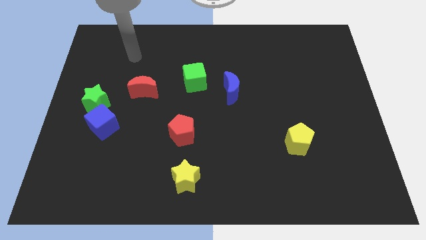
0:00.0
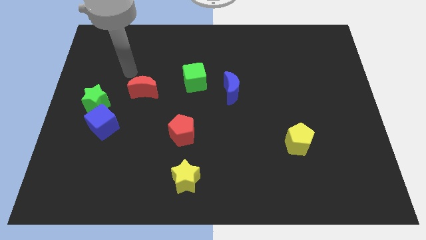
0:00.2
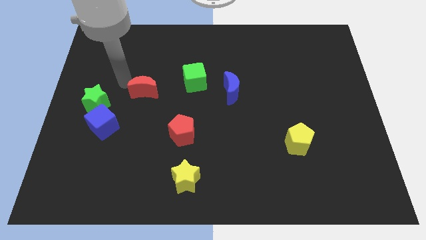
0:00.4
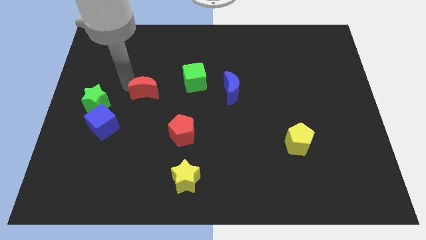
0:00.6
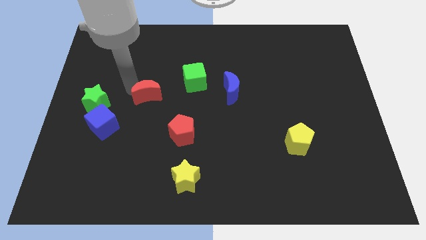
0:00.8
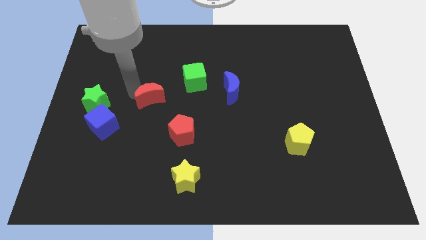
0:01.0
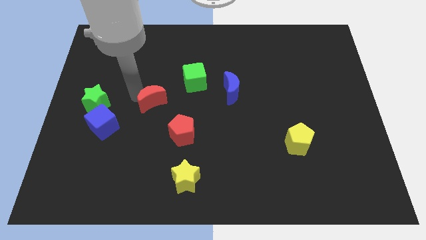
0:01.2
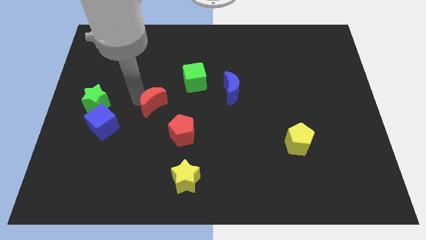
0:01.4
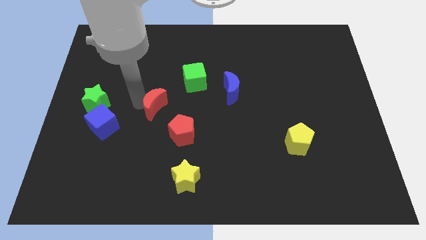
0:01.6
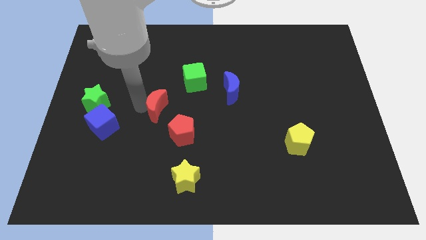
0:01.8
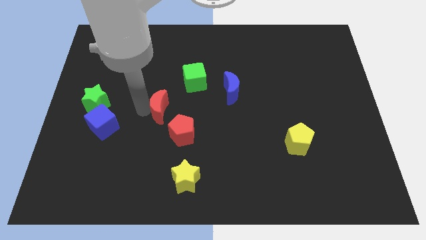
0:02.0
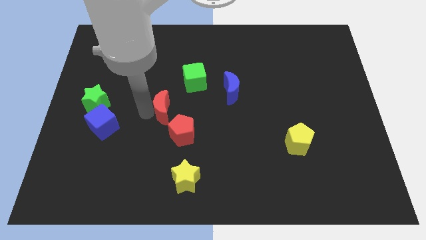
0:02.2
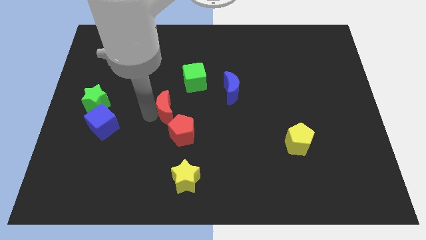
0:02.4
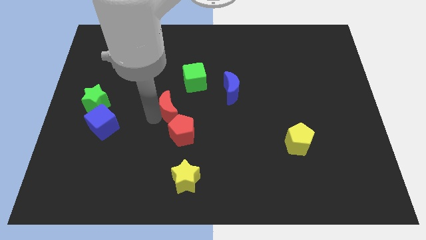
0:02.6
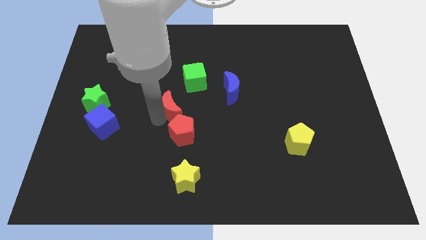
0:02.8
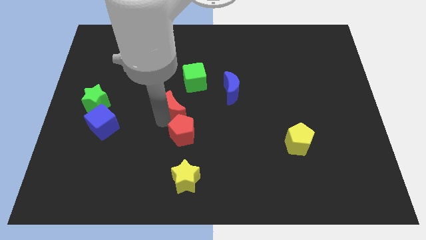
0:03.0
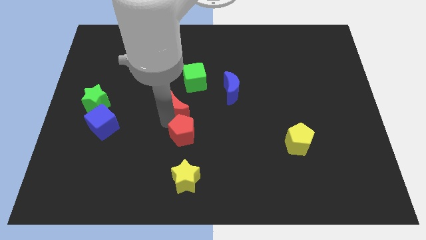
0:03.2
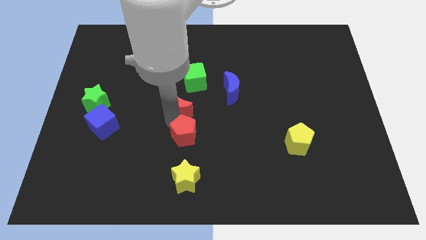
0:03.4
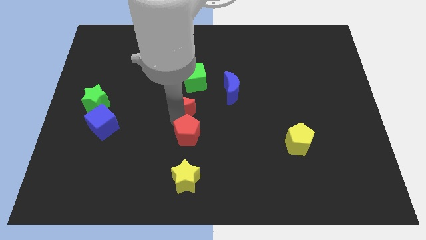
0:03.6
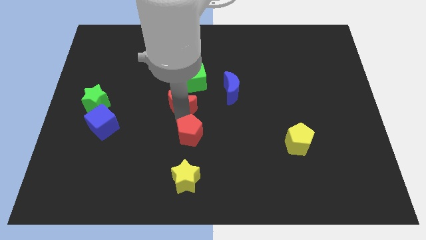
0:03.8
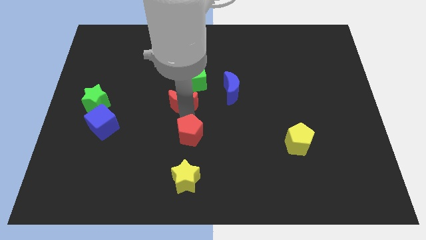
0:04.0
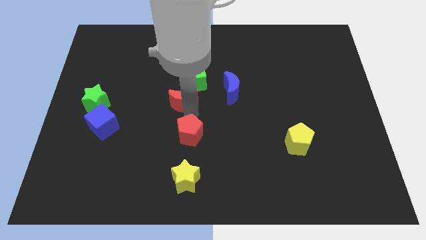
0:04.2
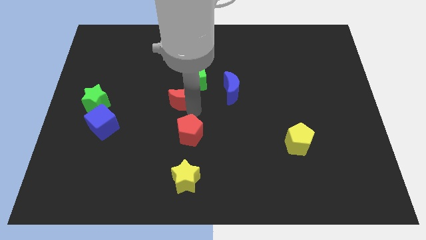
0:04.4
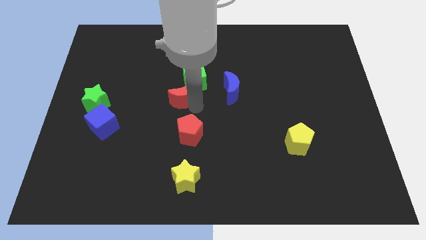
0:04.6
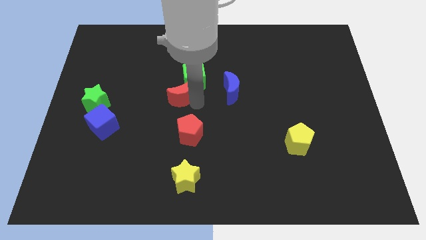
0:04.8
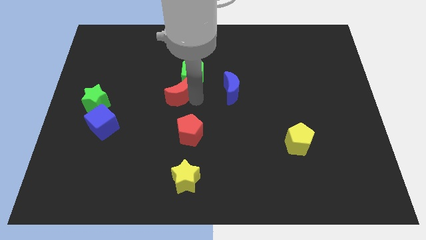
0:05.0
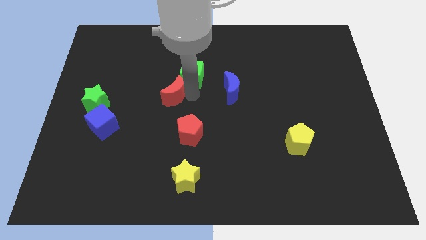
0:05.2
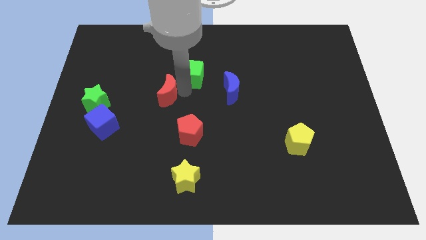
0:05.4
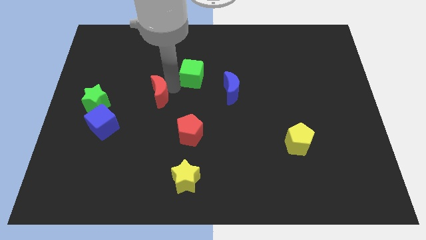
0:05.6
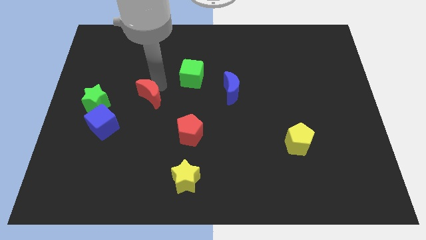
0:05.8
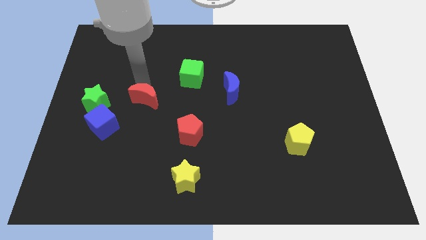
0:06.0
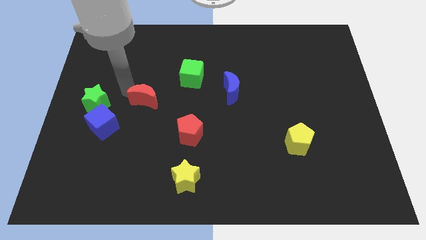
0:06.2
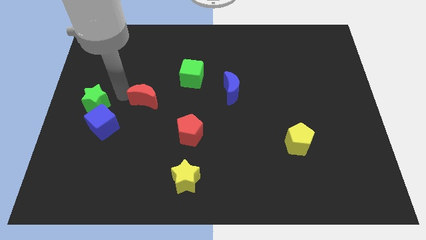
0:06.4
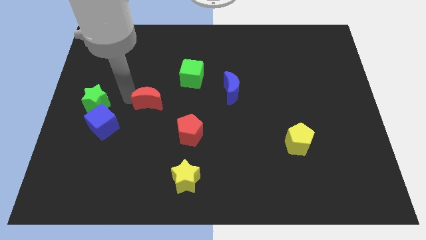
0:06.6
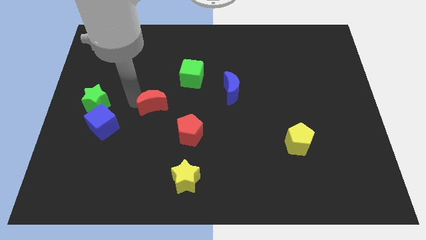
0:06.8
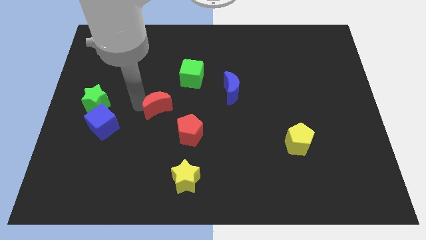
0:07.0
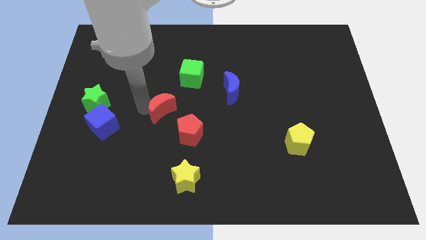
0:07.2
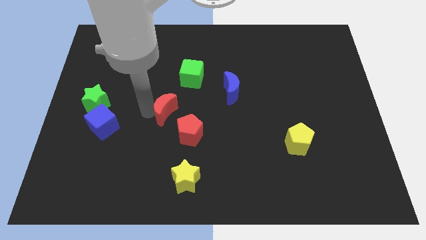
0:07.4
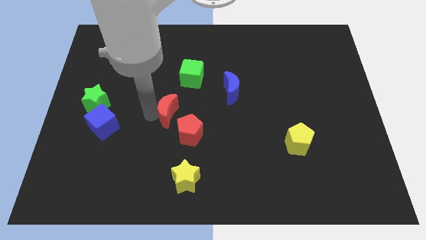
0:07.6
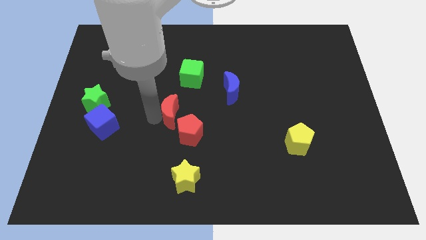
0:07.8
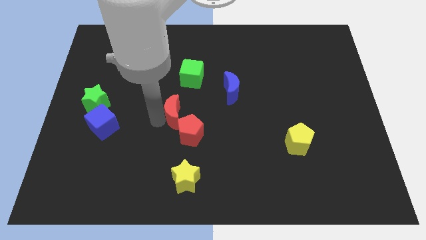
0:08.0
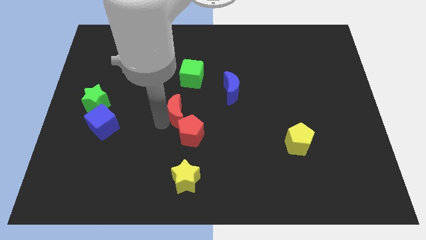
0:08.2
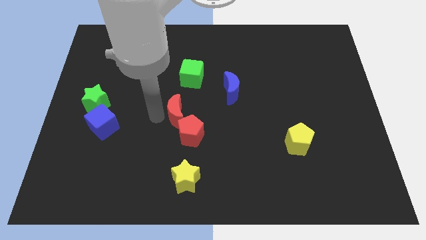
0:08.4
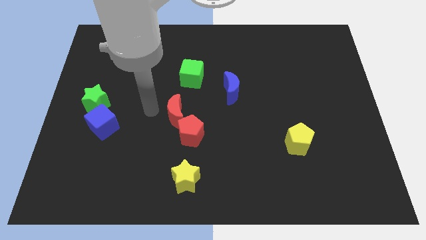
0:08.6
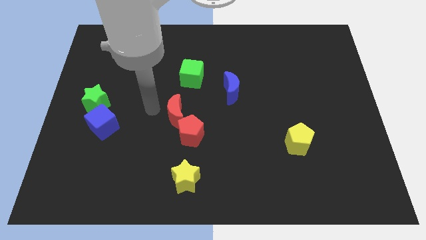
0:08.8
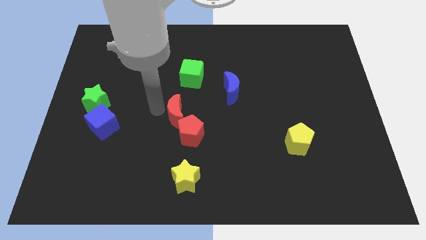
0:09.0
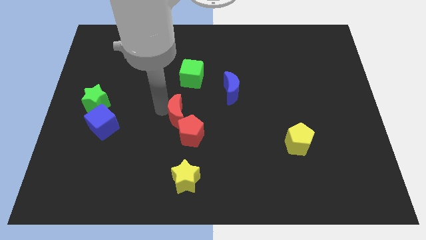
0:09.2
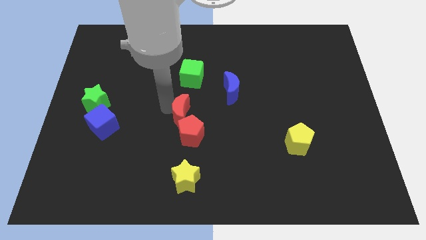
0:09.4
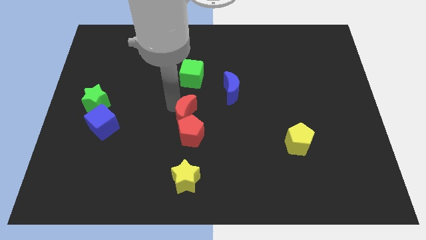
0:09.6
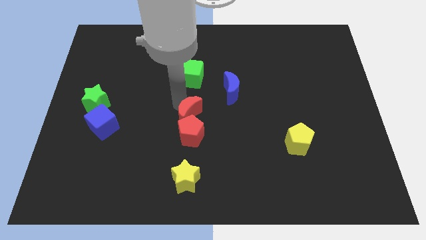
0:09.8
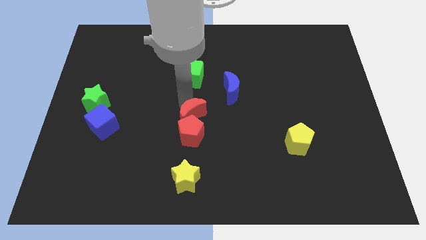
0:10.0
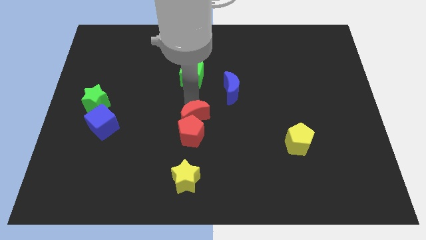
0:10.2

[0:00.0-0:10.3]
move the red moon to the top side of the yellow star

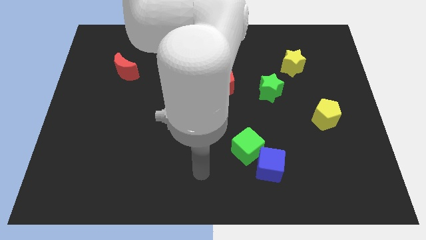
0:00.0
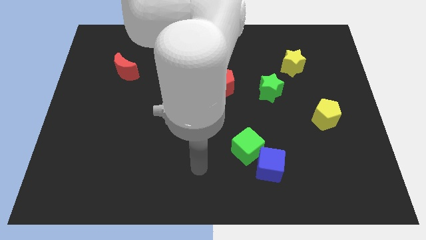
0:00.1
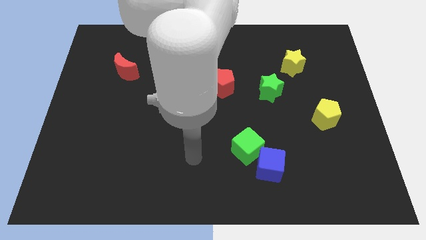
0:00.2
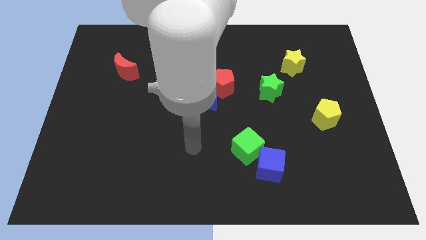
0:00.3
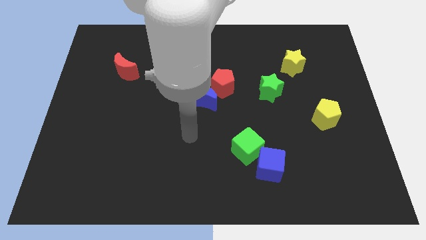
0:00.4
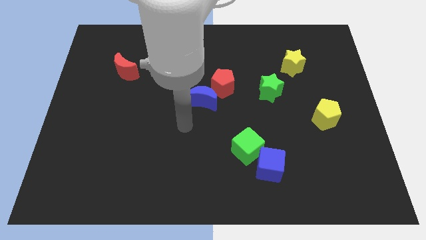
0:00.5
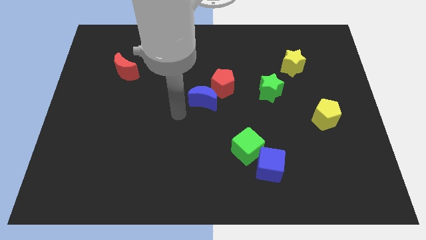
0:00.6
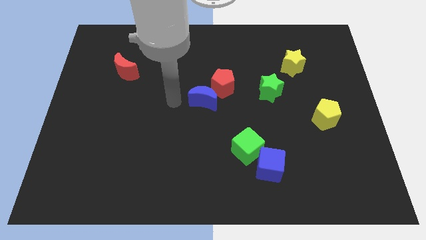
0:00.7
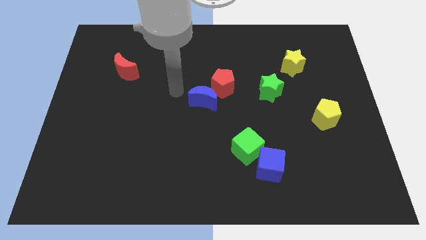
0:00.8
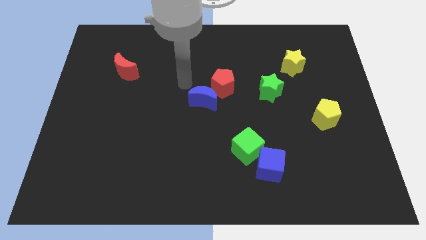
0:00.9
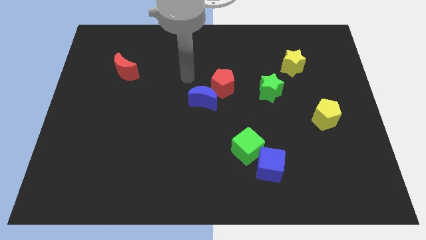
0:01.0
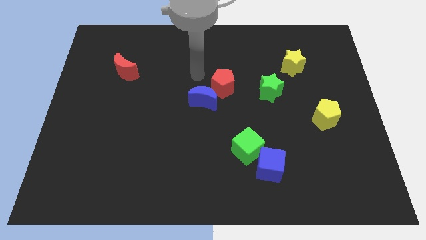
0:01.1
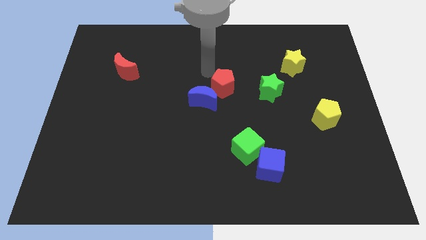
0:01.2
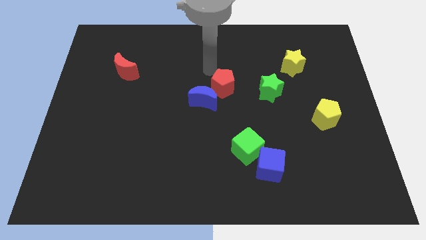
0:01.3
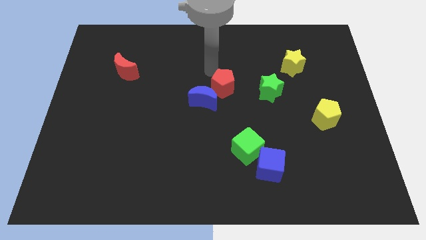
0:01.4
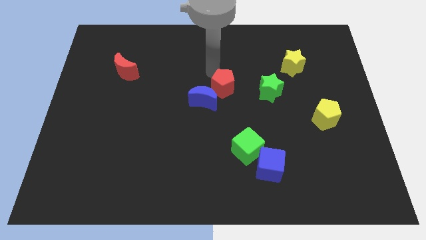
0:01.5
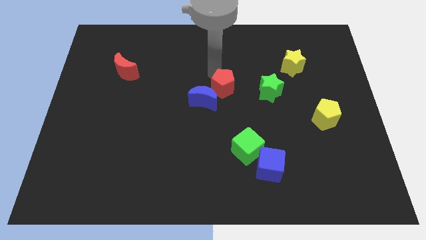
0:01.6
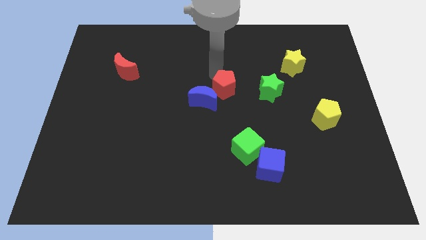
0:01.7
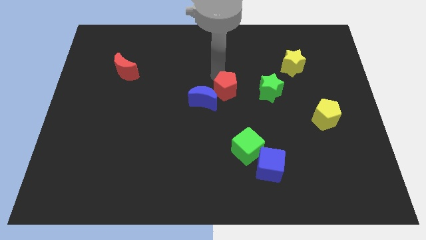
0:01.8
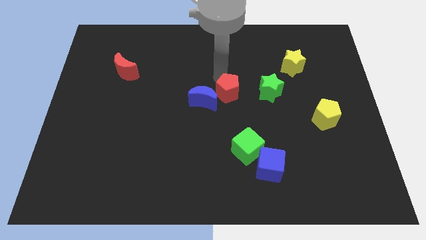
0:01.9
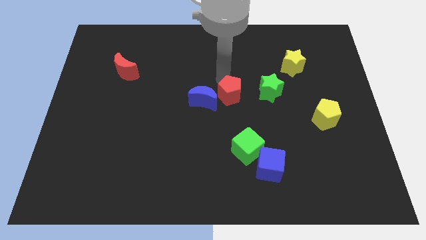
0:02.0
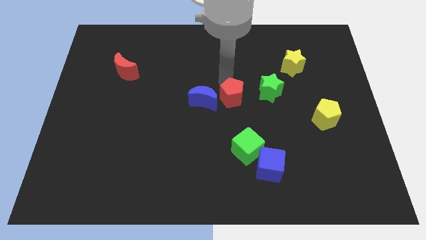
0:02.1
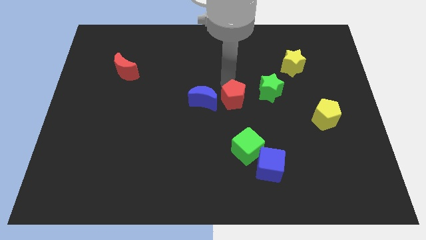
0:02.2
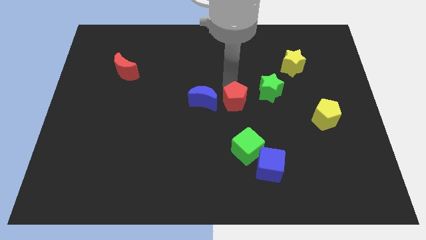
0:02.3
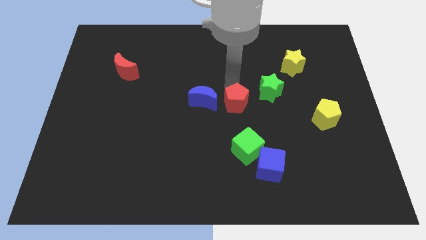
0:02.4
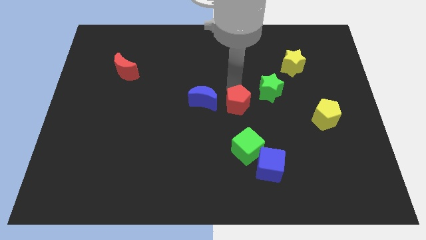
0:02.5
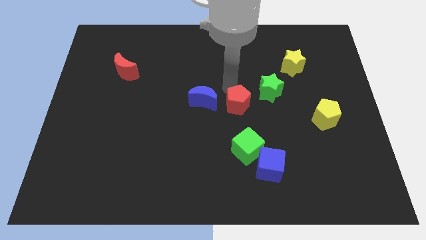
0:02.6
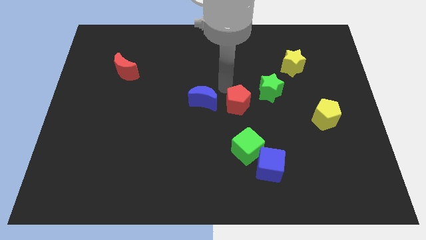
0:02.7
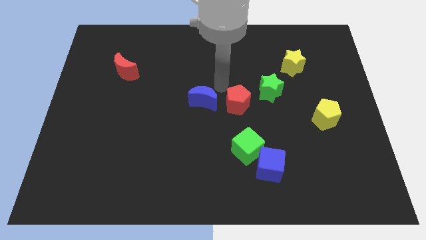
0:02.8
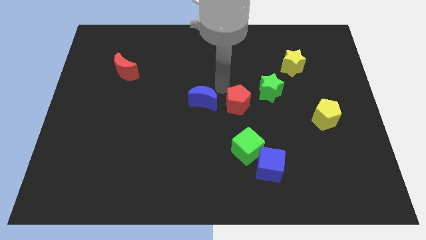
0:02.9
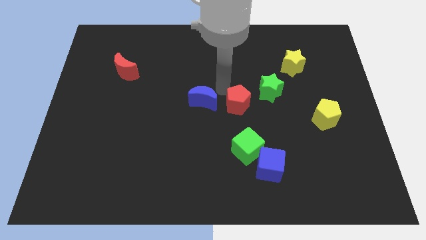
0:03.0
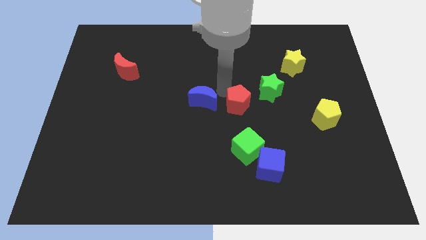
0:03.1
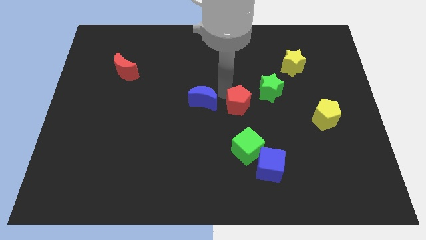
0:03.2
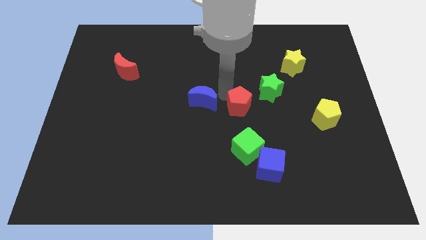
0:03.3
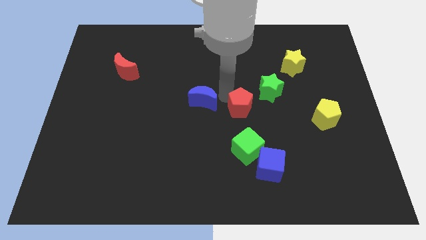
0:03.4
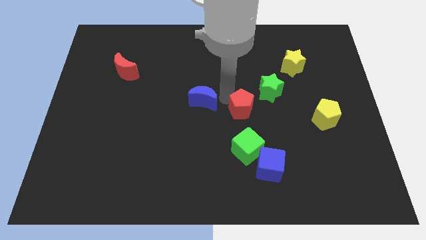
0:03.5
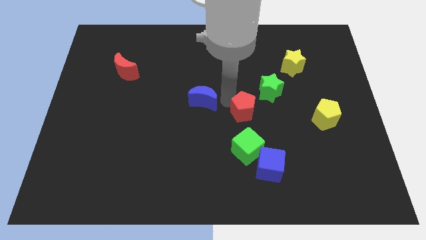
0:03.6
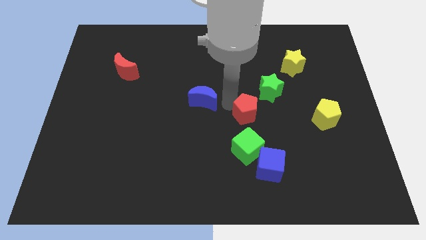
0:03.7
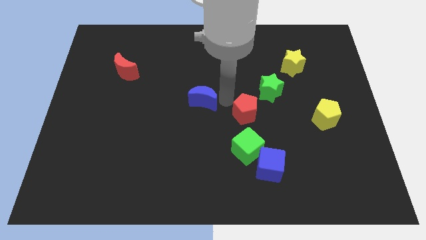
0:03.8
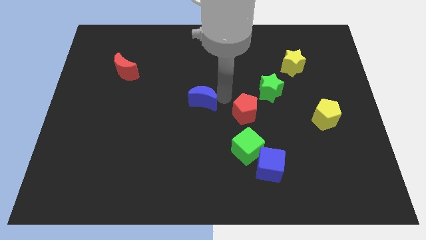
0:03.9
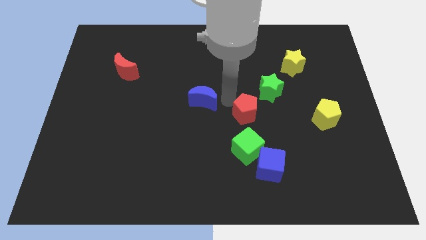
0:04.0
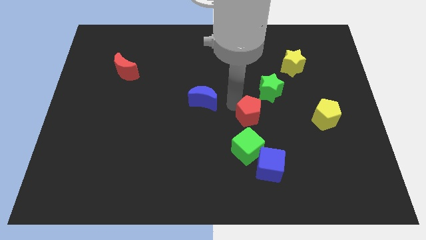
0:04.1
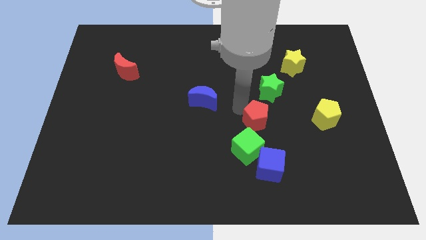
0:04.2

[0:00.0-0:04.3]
put the red pentagon diagonally up and to the right of the green cube
